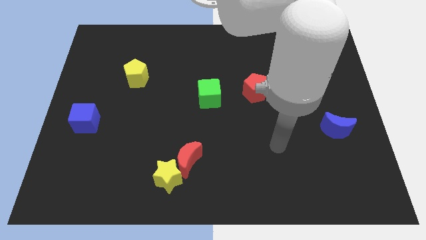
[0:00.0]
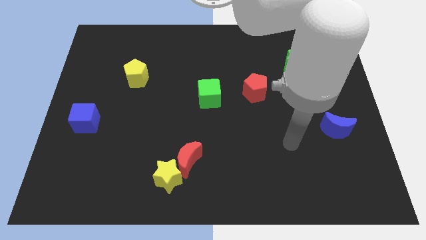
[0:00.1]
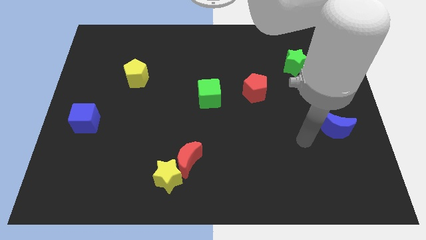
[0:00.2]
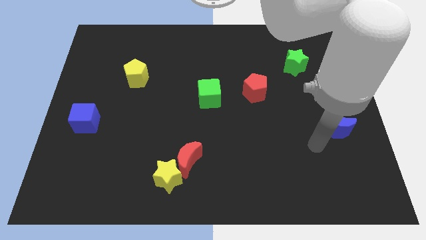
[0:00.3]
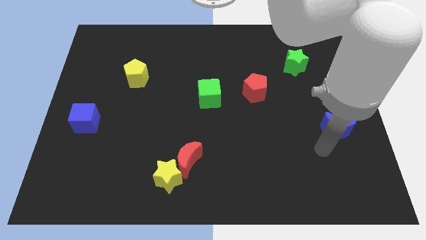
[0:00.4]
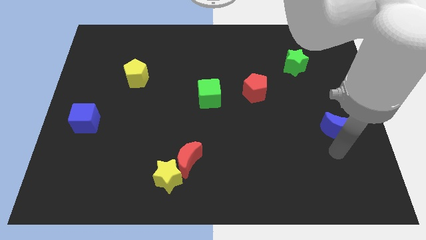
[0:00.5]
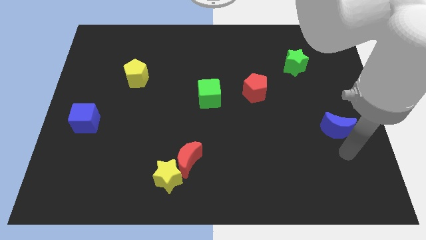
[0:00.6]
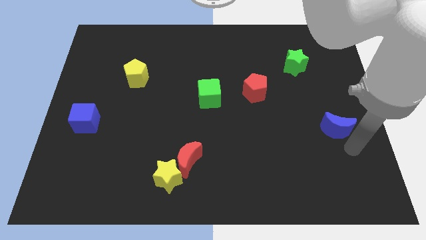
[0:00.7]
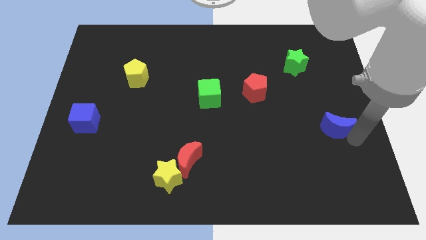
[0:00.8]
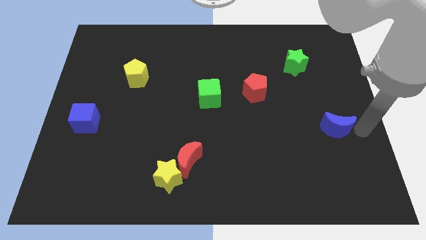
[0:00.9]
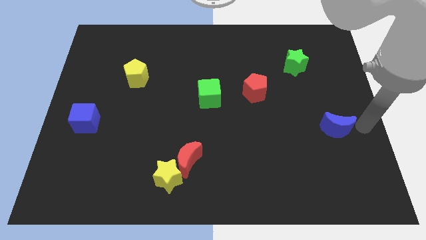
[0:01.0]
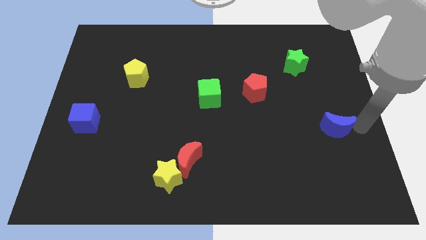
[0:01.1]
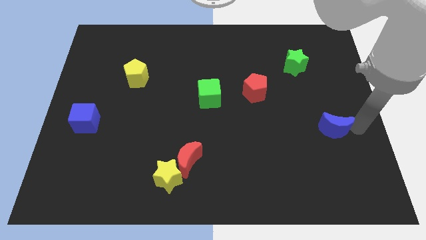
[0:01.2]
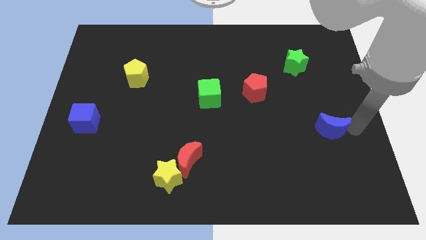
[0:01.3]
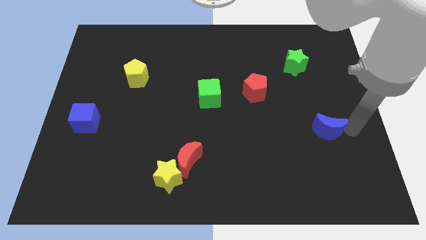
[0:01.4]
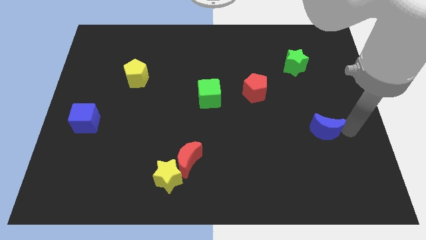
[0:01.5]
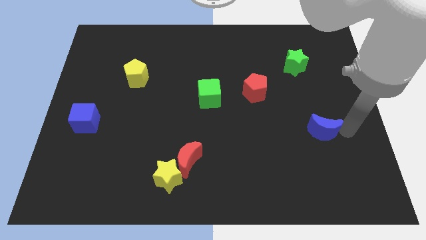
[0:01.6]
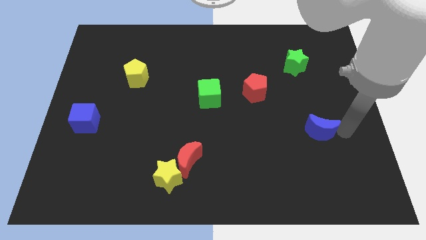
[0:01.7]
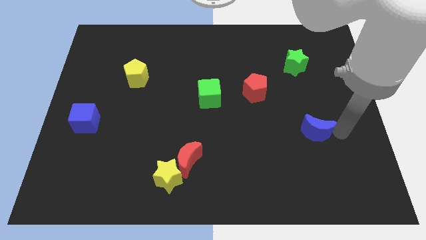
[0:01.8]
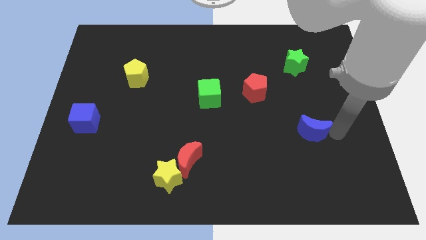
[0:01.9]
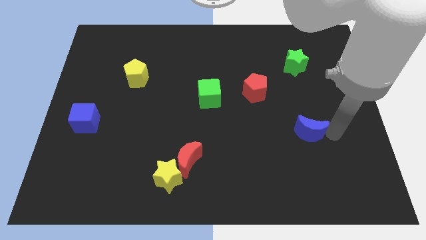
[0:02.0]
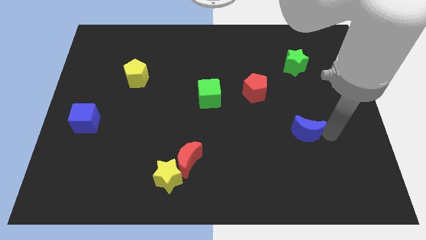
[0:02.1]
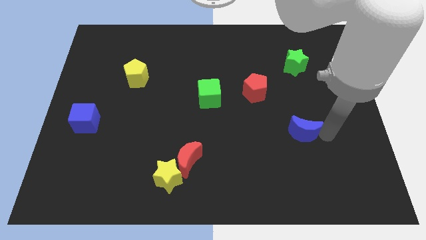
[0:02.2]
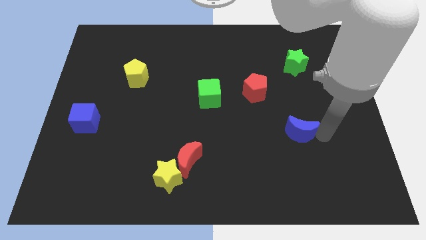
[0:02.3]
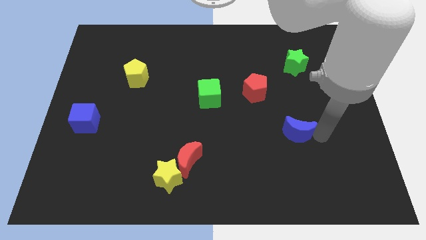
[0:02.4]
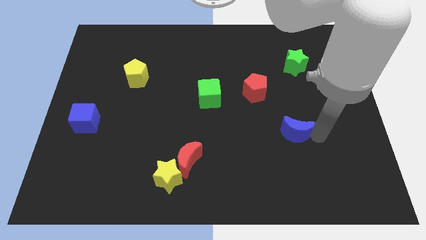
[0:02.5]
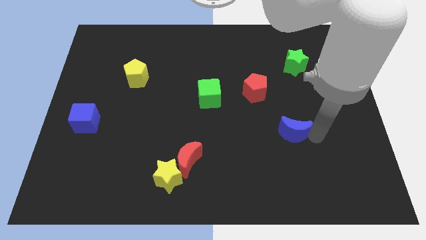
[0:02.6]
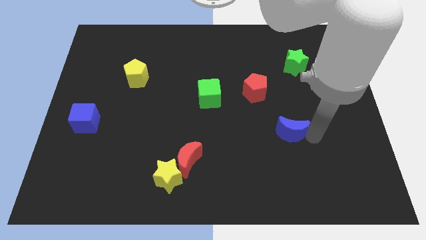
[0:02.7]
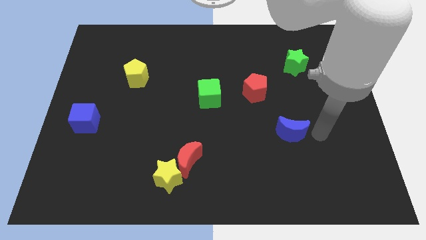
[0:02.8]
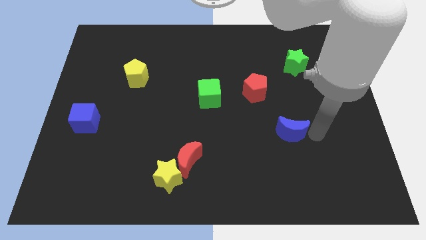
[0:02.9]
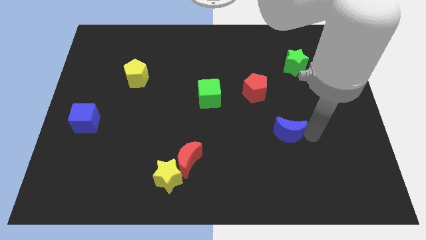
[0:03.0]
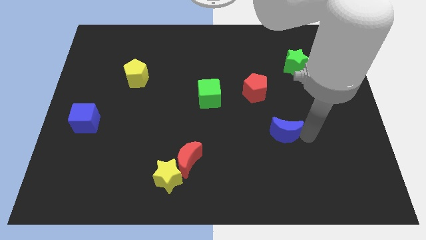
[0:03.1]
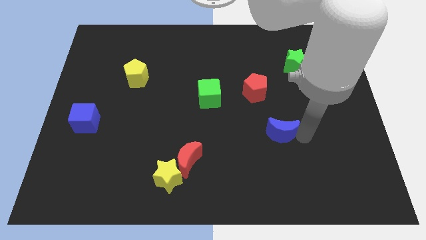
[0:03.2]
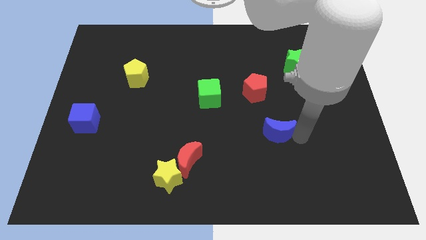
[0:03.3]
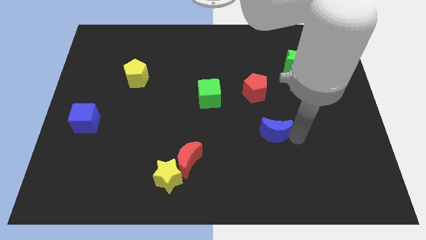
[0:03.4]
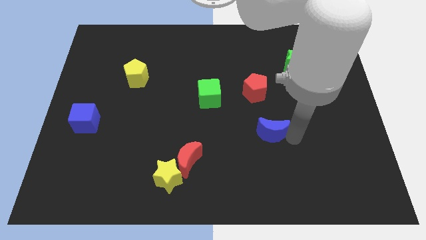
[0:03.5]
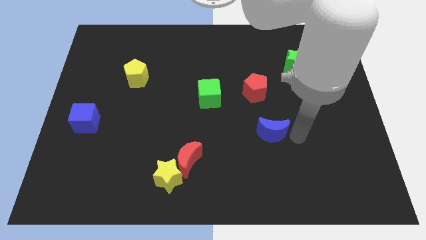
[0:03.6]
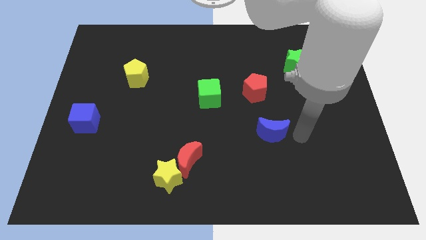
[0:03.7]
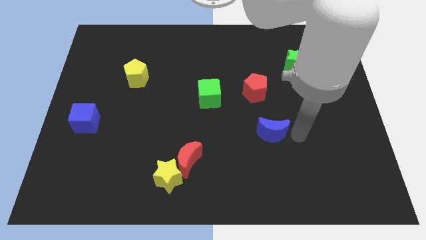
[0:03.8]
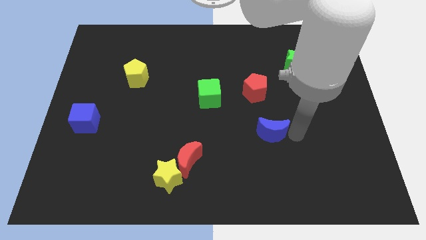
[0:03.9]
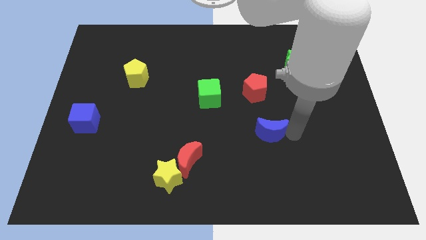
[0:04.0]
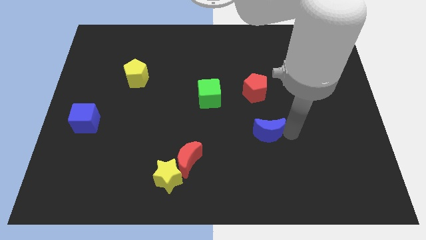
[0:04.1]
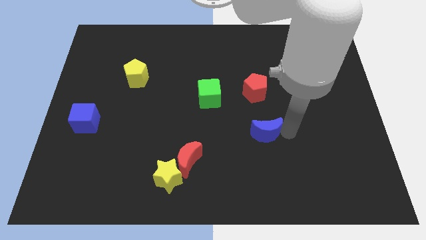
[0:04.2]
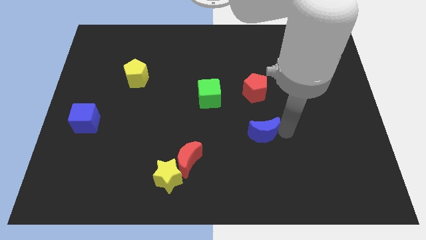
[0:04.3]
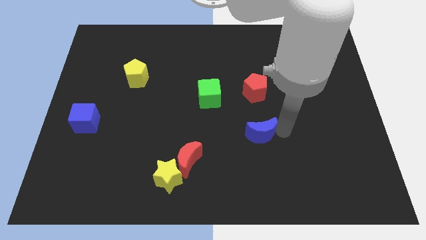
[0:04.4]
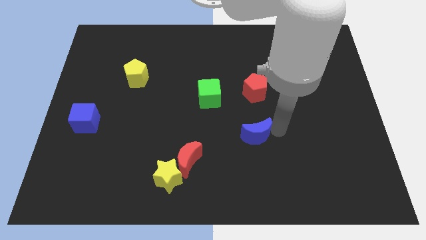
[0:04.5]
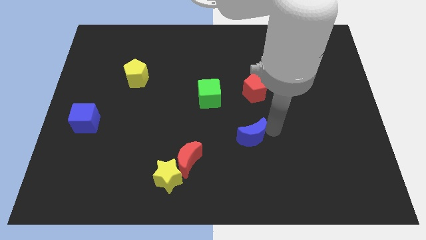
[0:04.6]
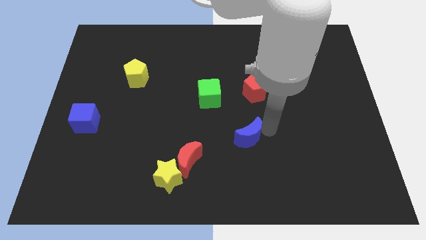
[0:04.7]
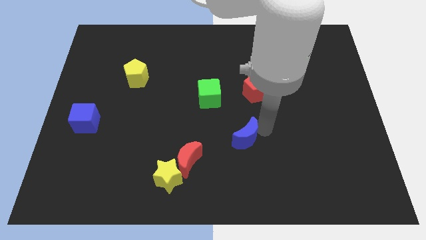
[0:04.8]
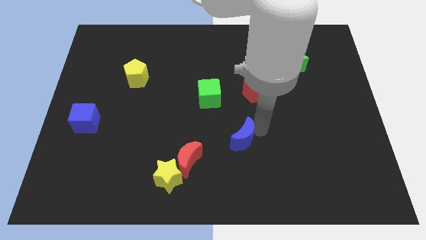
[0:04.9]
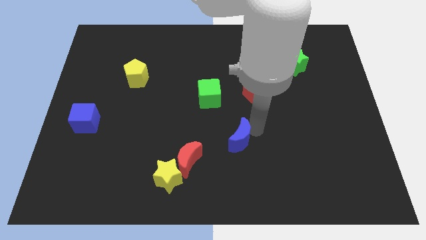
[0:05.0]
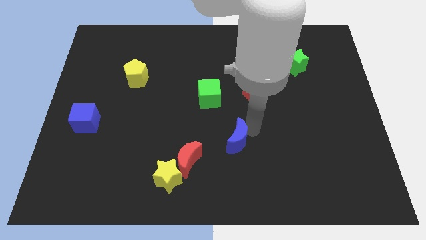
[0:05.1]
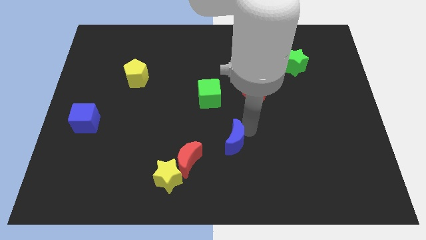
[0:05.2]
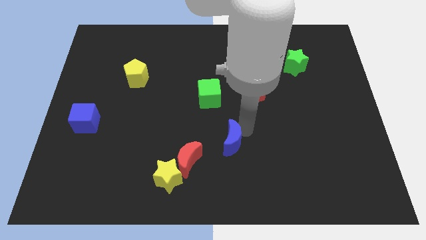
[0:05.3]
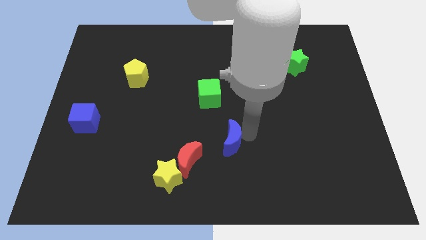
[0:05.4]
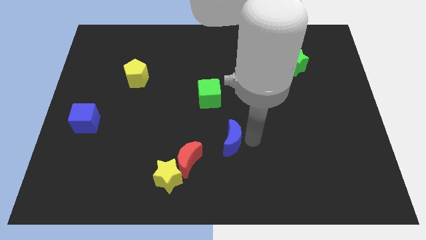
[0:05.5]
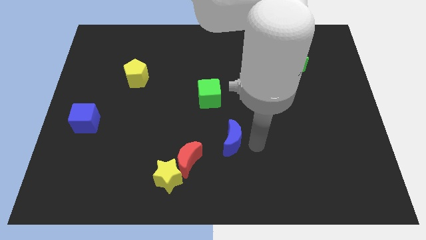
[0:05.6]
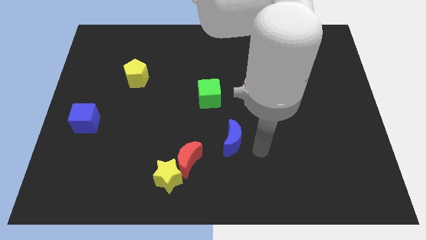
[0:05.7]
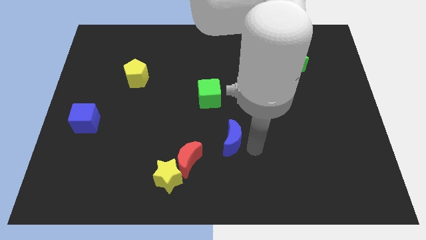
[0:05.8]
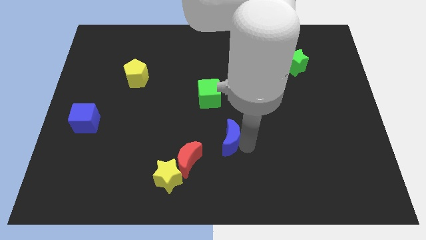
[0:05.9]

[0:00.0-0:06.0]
push the blue moon to the bottom side of the green cube

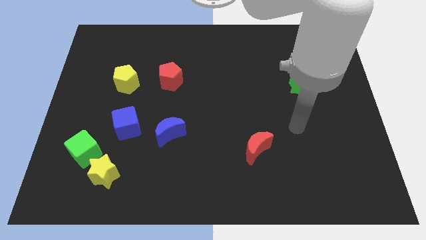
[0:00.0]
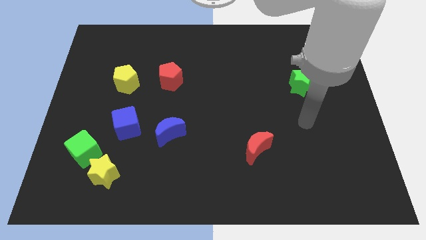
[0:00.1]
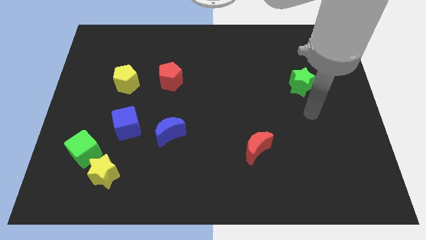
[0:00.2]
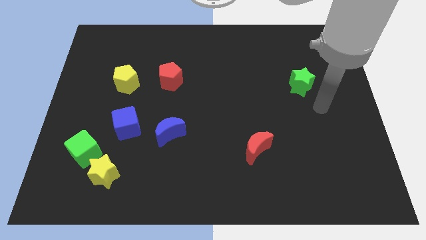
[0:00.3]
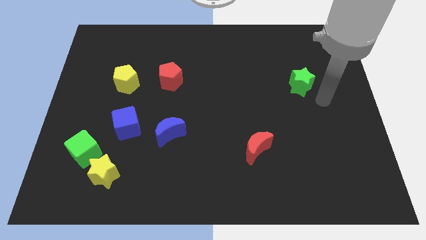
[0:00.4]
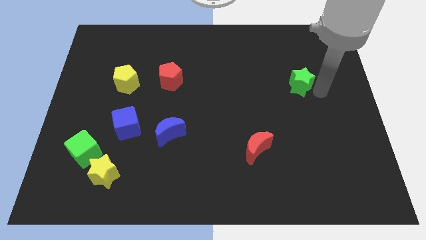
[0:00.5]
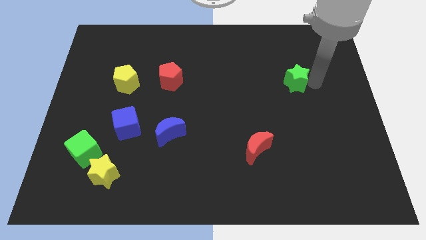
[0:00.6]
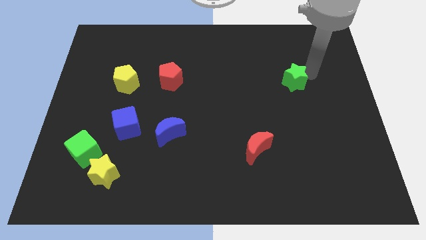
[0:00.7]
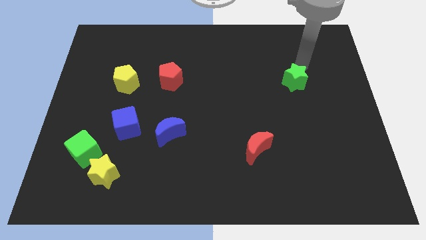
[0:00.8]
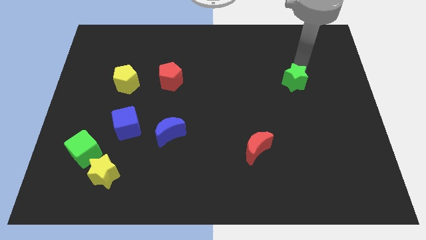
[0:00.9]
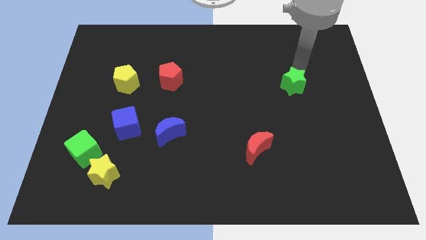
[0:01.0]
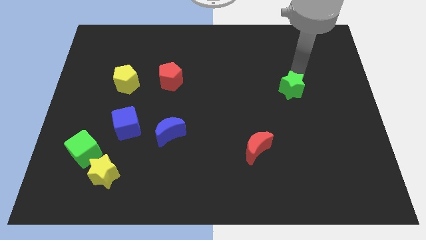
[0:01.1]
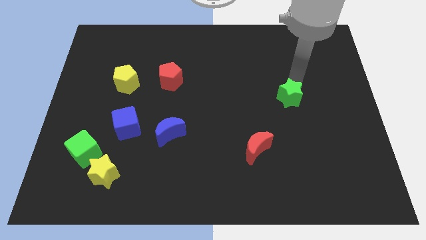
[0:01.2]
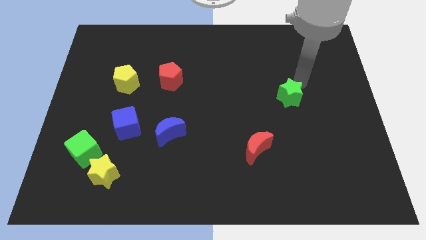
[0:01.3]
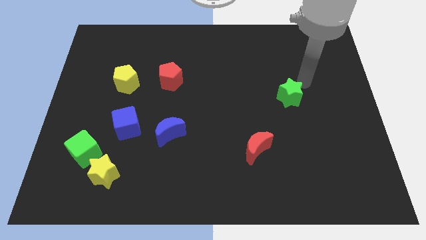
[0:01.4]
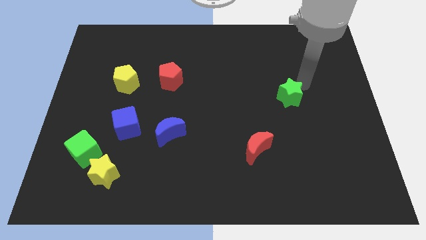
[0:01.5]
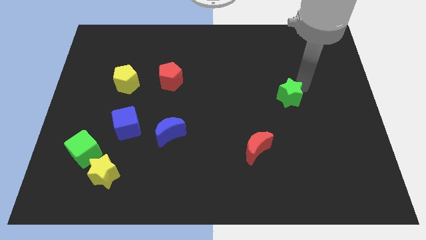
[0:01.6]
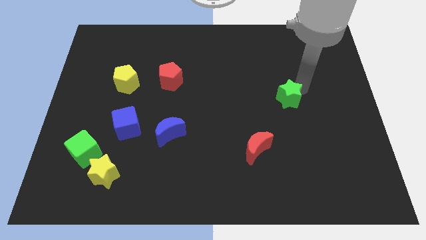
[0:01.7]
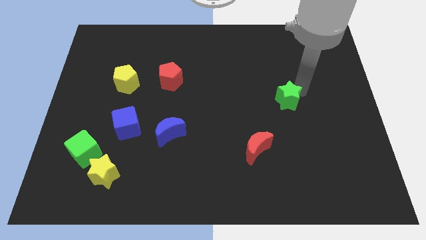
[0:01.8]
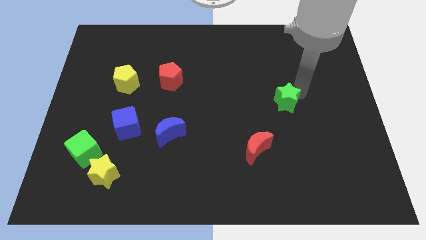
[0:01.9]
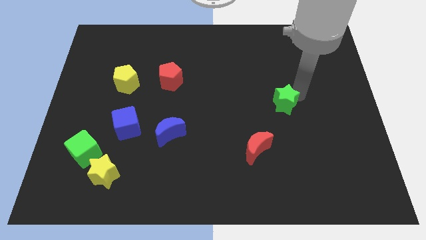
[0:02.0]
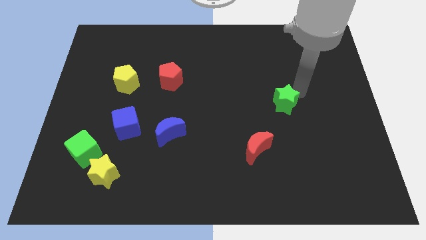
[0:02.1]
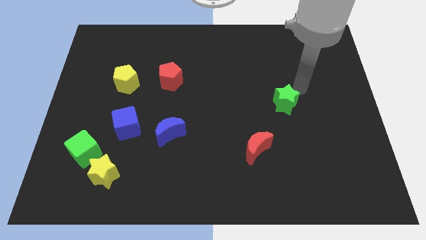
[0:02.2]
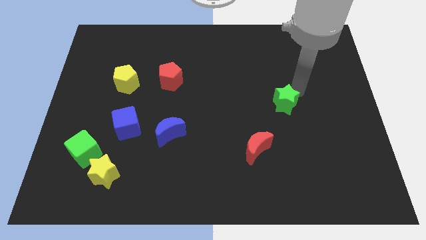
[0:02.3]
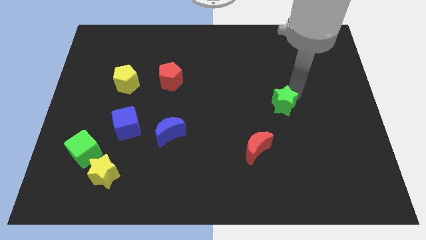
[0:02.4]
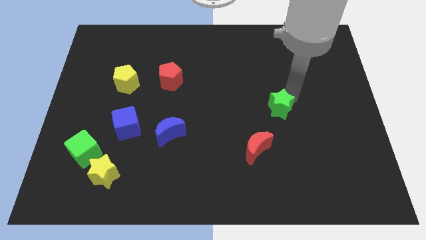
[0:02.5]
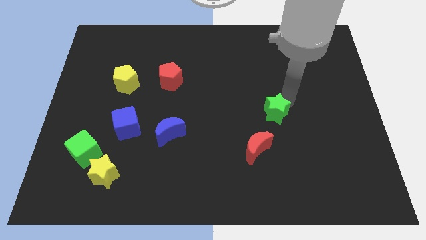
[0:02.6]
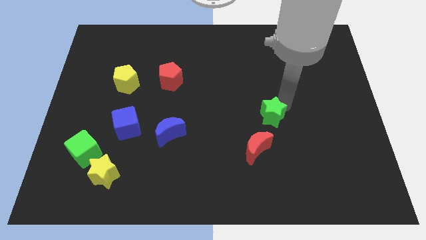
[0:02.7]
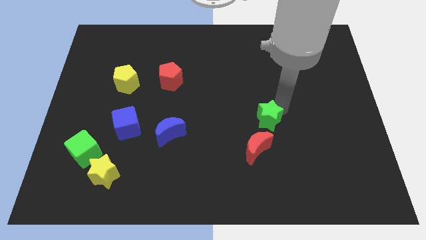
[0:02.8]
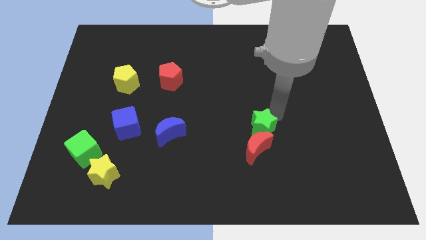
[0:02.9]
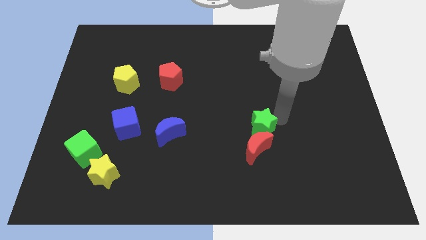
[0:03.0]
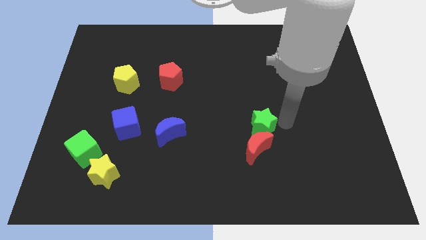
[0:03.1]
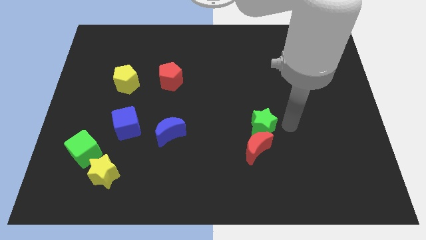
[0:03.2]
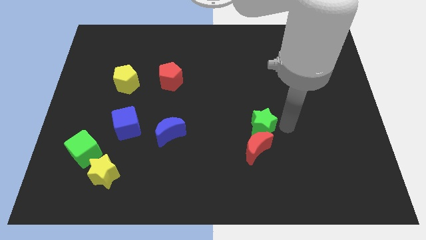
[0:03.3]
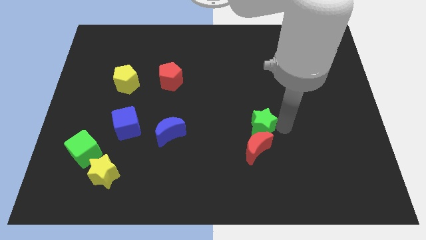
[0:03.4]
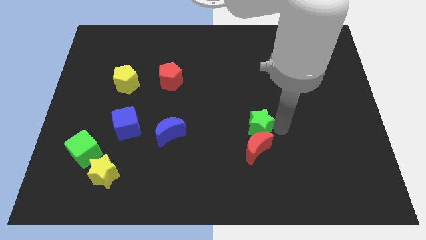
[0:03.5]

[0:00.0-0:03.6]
move the green star diagonally up and to the left of the red moon
